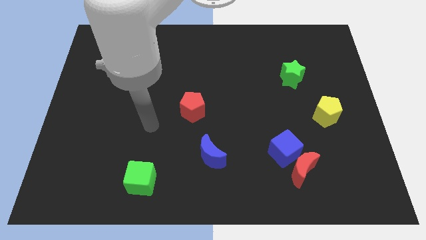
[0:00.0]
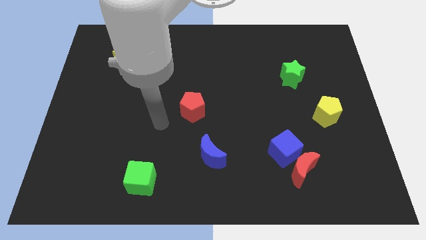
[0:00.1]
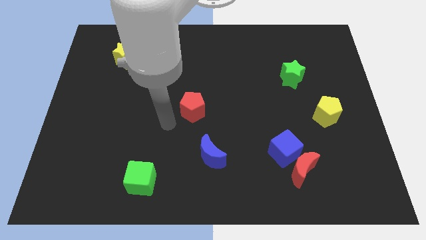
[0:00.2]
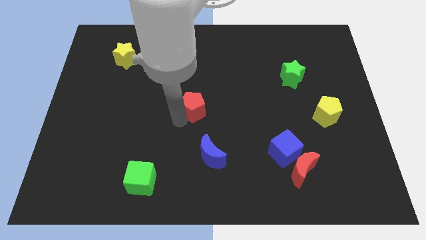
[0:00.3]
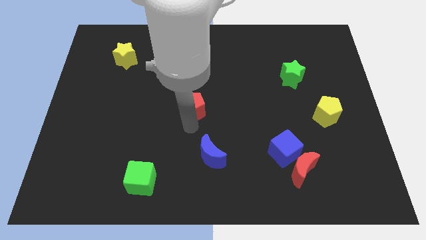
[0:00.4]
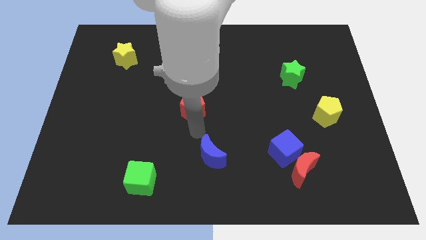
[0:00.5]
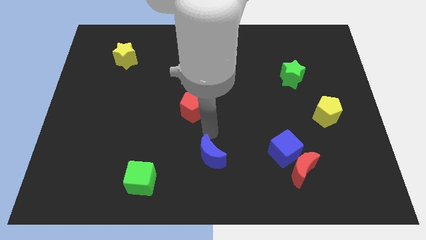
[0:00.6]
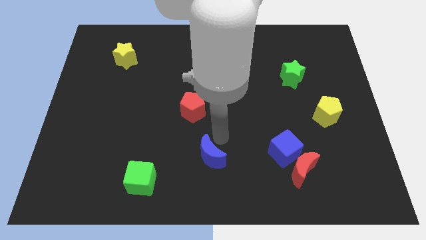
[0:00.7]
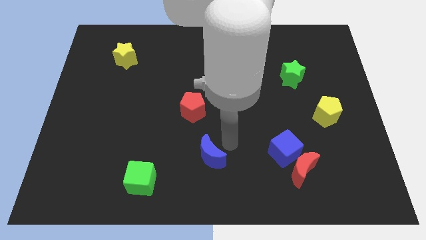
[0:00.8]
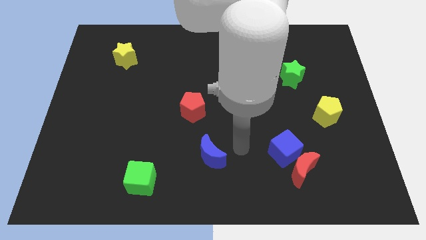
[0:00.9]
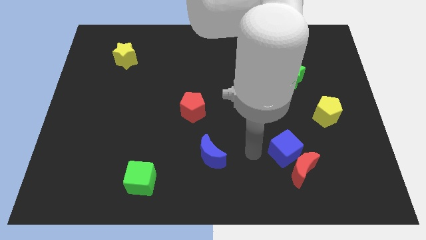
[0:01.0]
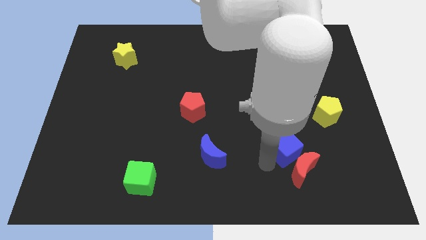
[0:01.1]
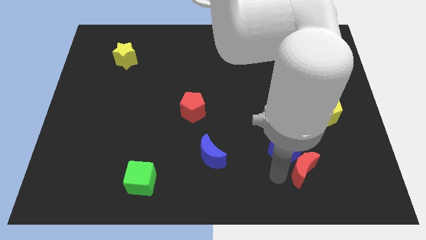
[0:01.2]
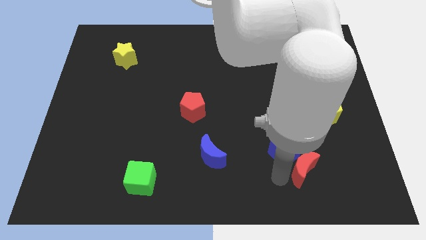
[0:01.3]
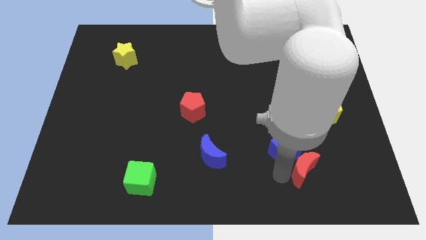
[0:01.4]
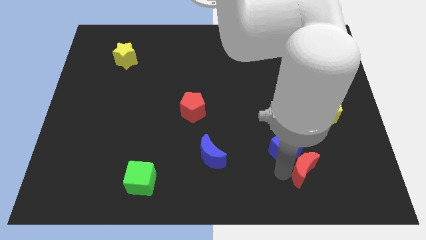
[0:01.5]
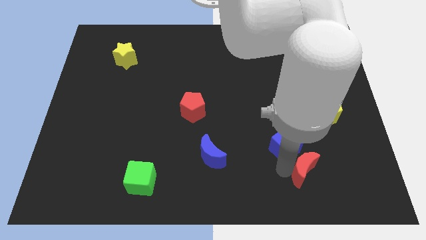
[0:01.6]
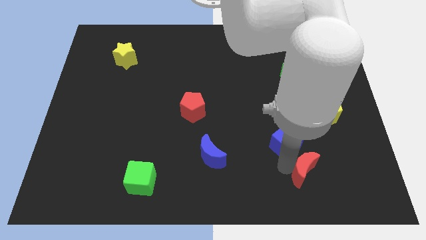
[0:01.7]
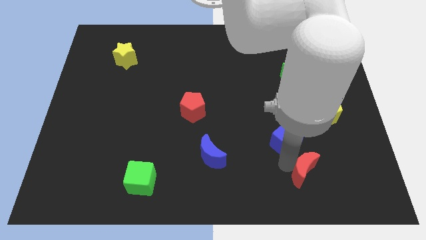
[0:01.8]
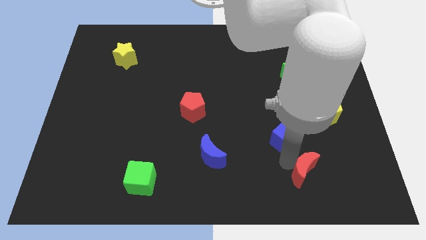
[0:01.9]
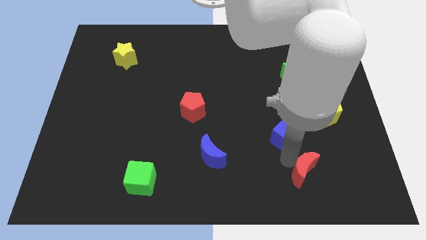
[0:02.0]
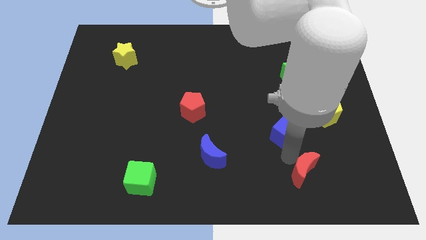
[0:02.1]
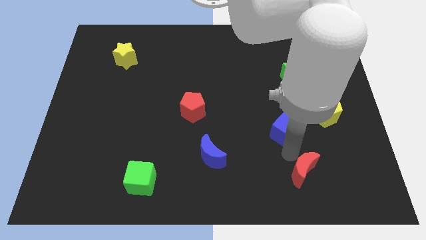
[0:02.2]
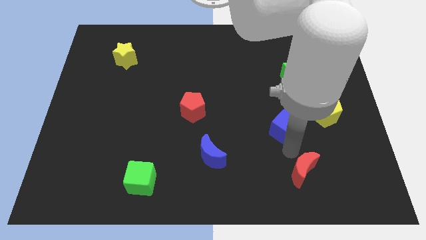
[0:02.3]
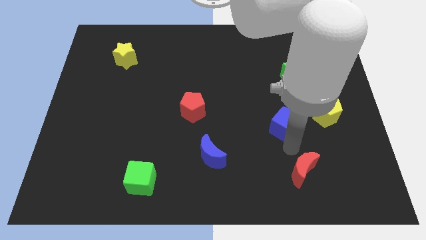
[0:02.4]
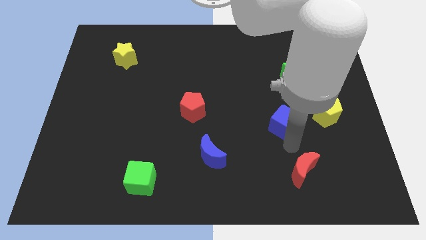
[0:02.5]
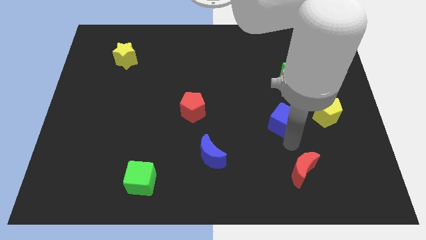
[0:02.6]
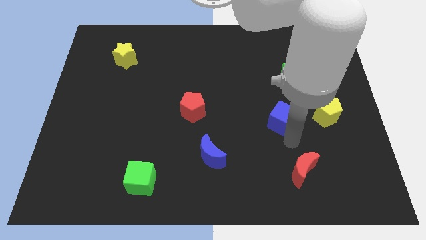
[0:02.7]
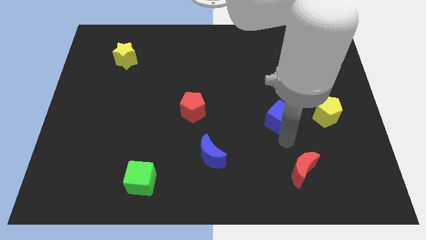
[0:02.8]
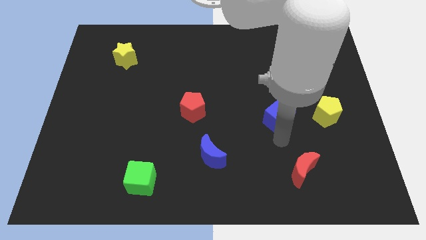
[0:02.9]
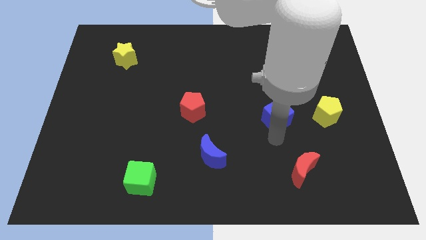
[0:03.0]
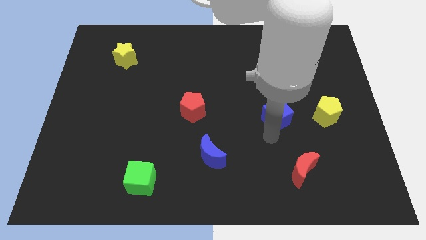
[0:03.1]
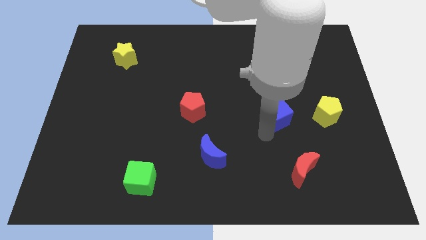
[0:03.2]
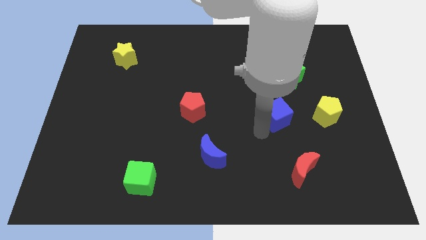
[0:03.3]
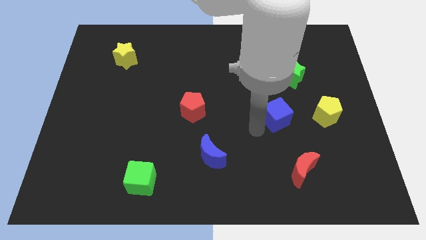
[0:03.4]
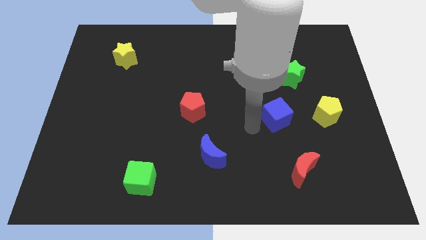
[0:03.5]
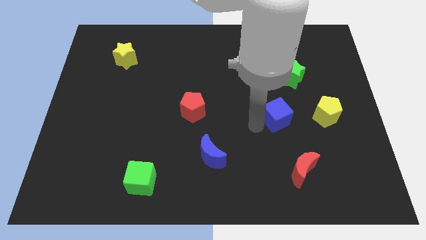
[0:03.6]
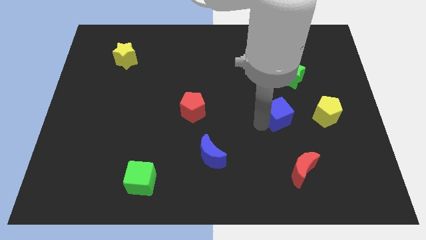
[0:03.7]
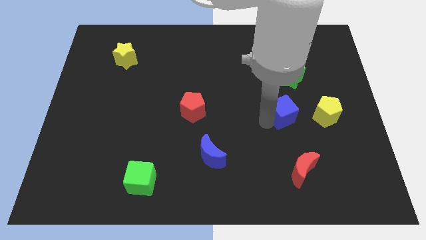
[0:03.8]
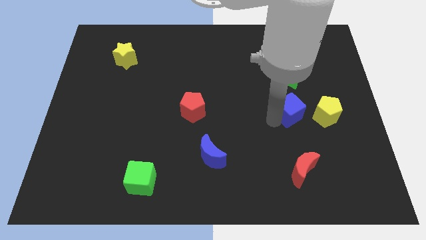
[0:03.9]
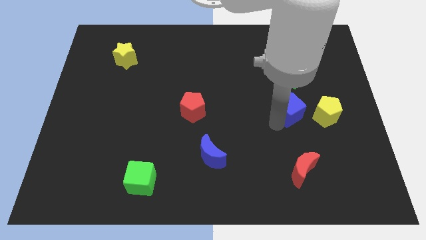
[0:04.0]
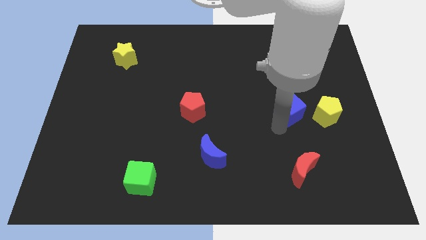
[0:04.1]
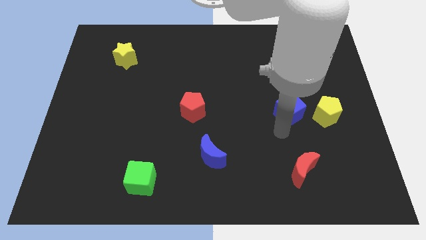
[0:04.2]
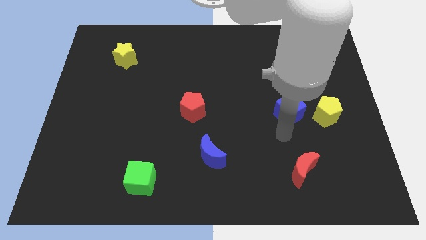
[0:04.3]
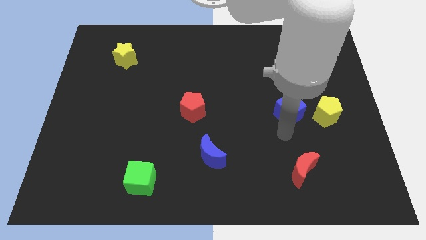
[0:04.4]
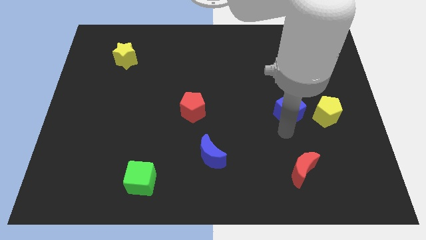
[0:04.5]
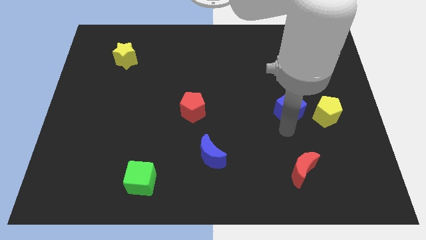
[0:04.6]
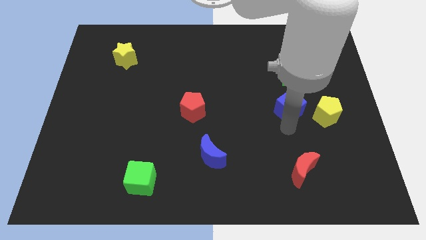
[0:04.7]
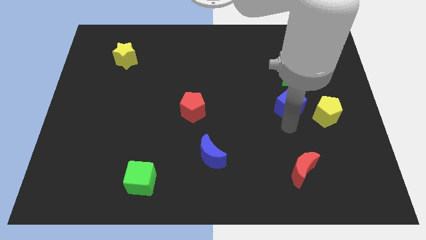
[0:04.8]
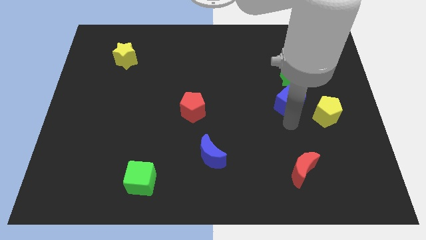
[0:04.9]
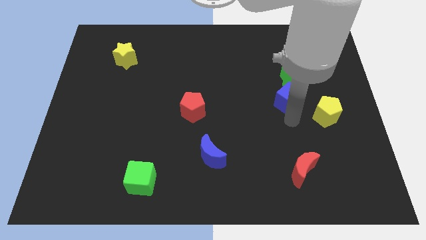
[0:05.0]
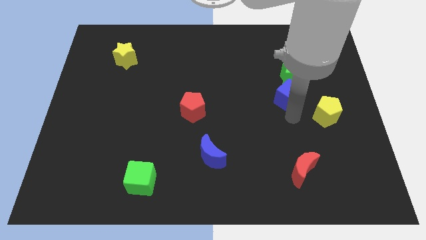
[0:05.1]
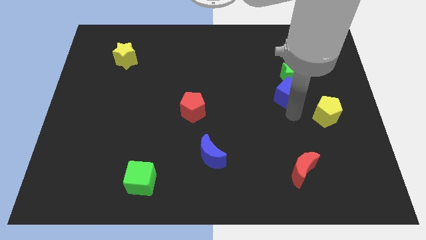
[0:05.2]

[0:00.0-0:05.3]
put the blue cube close to the green star

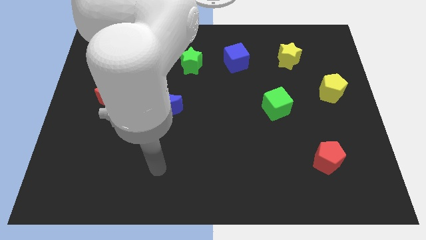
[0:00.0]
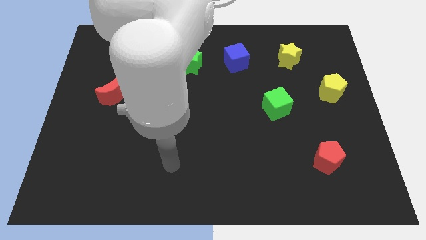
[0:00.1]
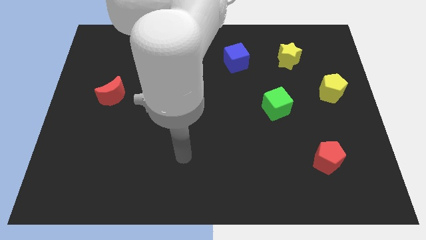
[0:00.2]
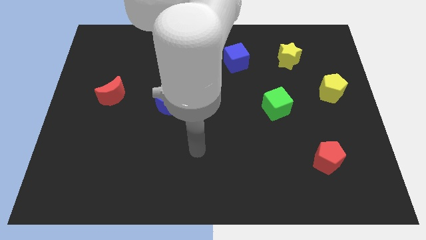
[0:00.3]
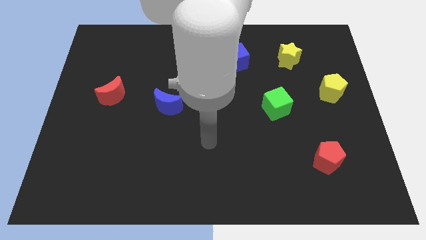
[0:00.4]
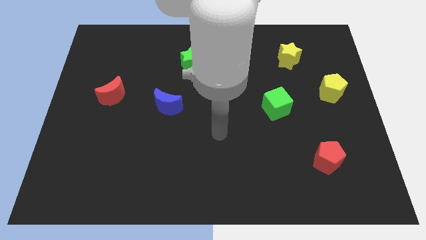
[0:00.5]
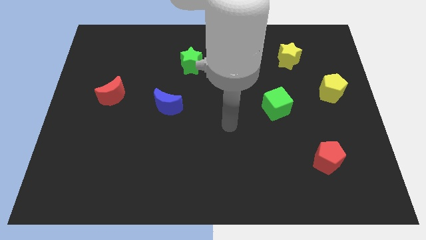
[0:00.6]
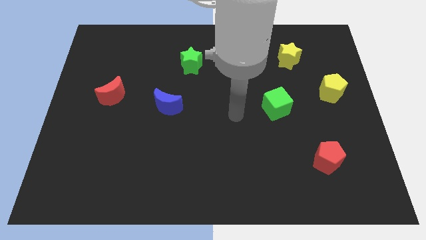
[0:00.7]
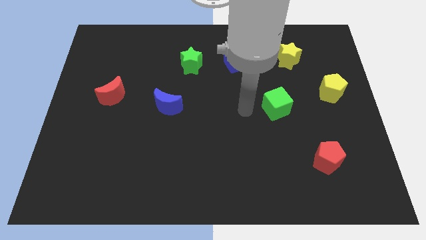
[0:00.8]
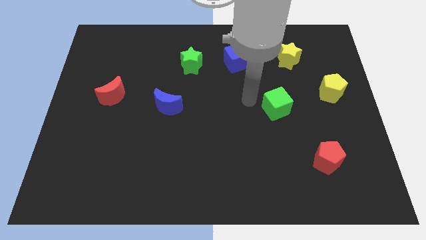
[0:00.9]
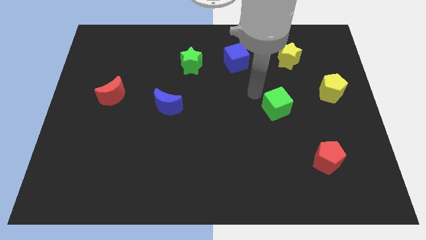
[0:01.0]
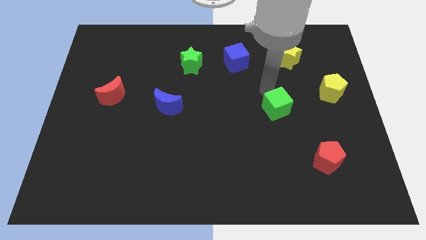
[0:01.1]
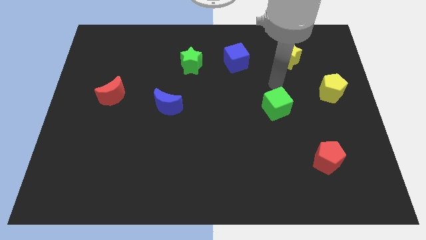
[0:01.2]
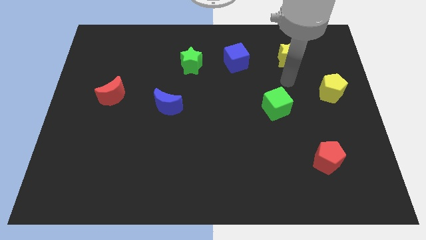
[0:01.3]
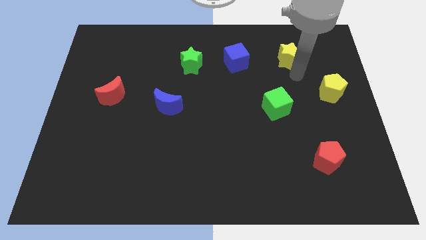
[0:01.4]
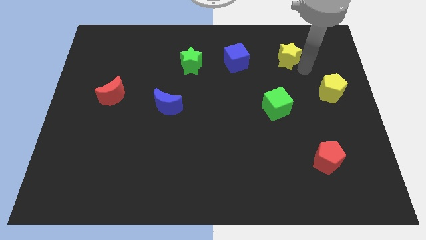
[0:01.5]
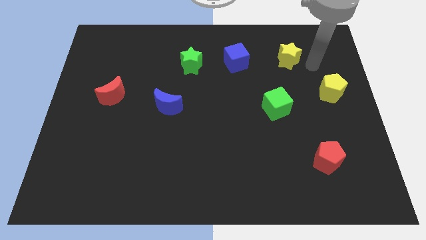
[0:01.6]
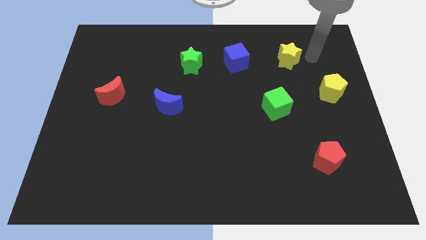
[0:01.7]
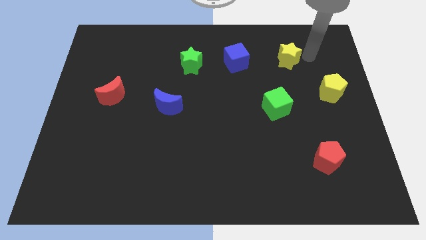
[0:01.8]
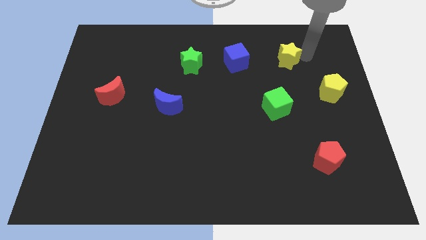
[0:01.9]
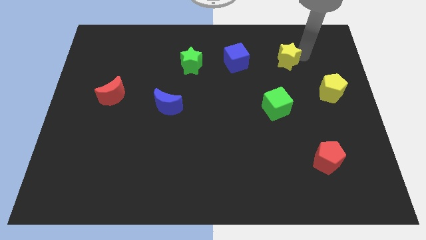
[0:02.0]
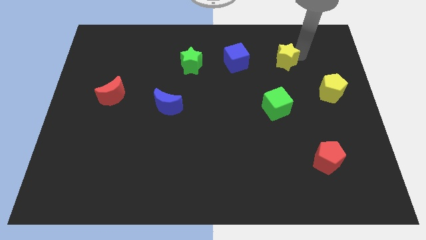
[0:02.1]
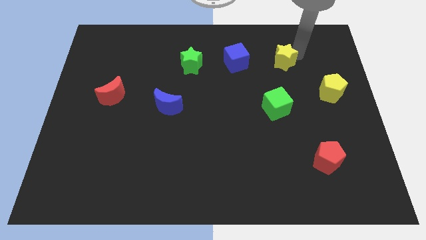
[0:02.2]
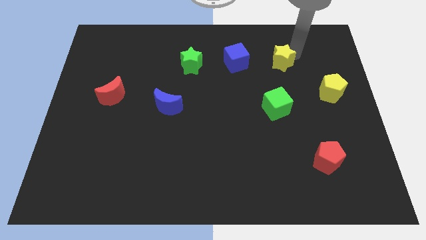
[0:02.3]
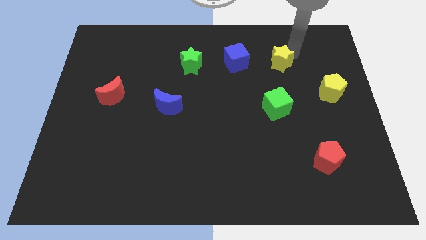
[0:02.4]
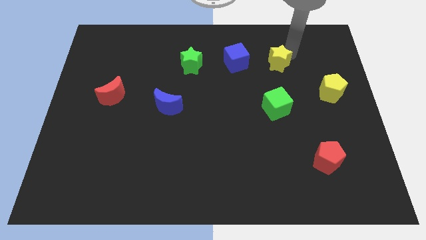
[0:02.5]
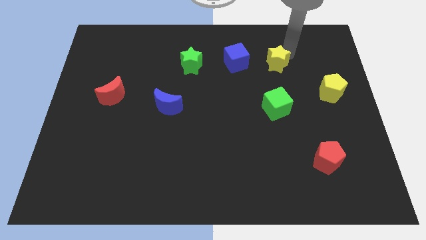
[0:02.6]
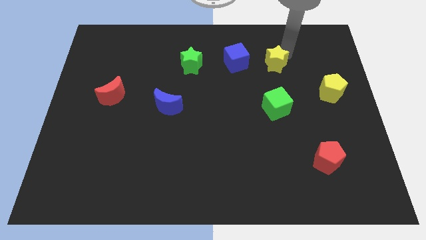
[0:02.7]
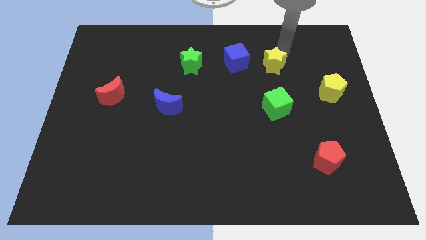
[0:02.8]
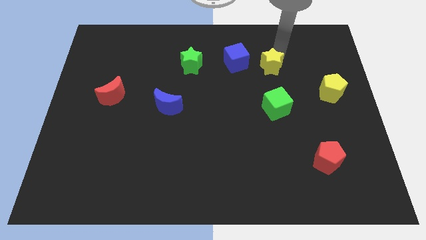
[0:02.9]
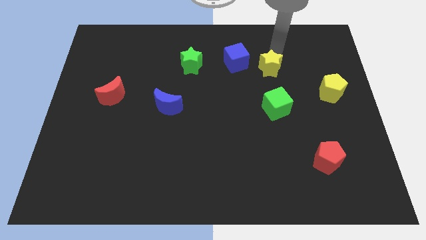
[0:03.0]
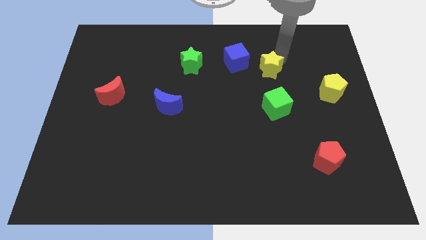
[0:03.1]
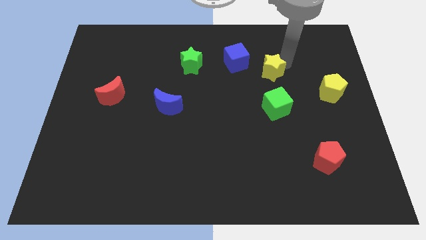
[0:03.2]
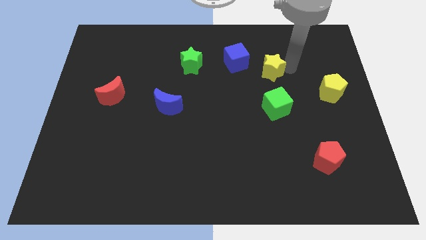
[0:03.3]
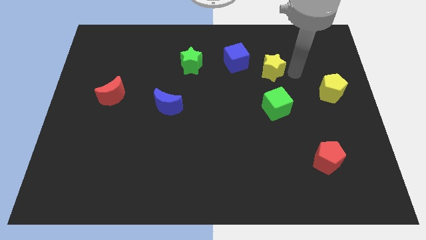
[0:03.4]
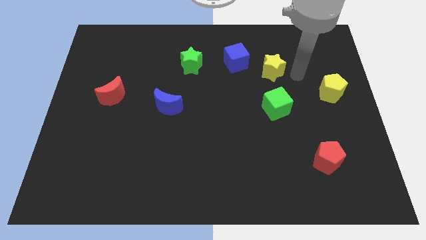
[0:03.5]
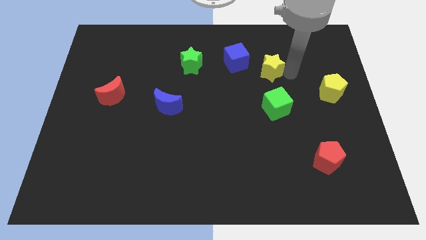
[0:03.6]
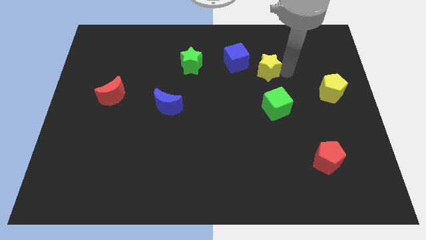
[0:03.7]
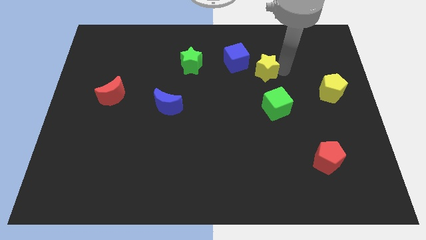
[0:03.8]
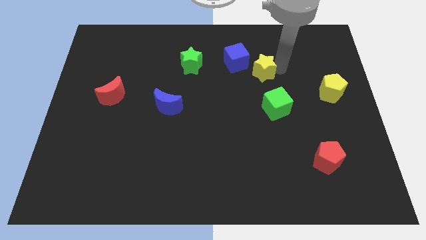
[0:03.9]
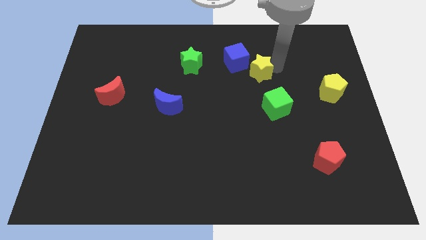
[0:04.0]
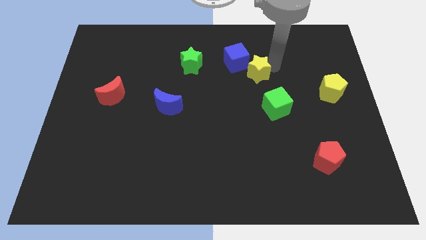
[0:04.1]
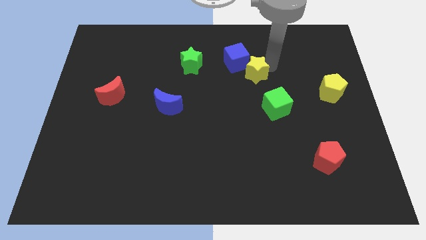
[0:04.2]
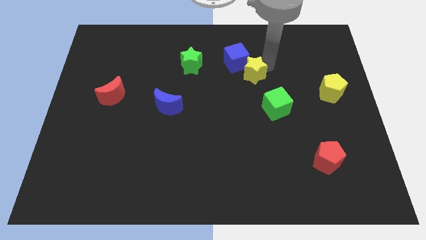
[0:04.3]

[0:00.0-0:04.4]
slide the yellow star to the blue cube
